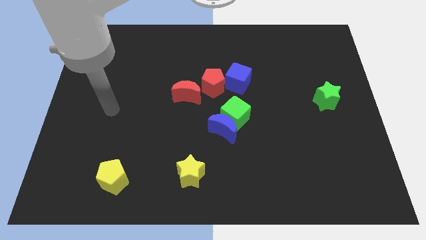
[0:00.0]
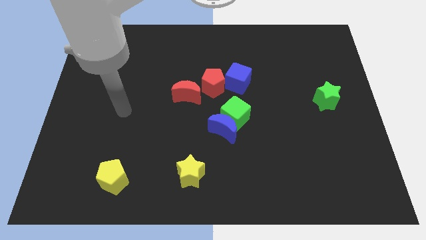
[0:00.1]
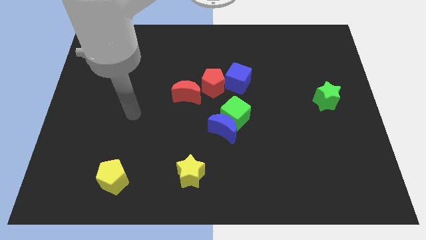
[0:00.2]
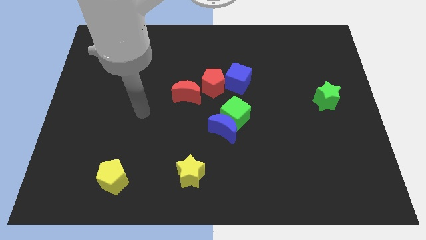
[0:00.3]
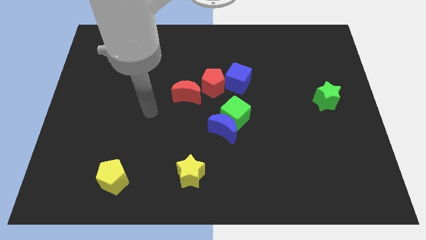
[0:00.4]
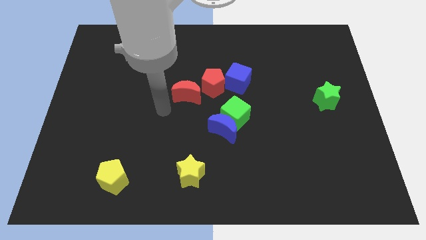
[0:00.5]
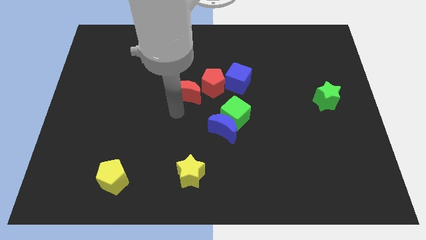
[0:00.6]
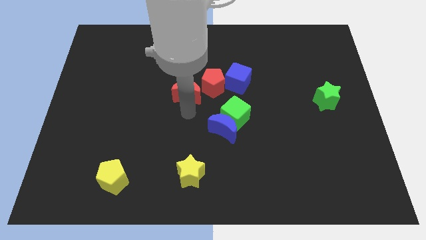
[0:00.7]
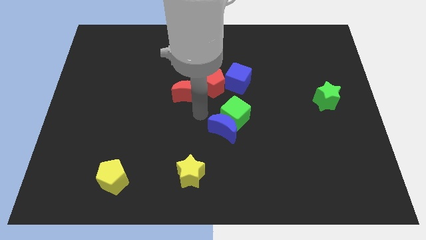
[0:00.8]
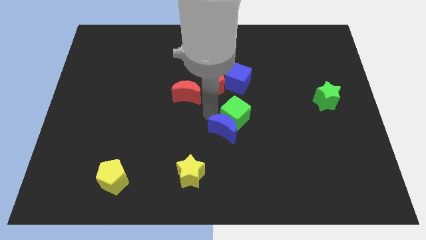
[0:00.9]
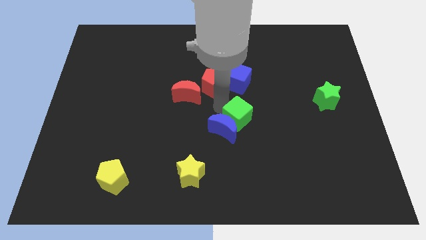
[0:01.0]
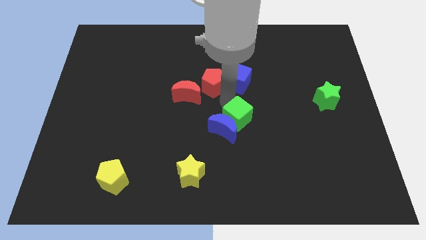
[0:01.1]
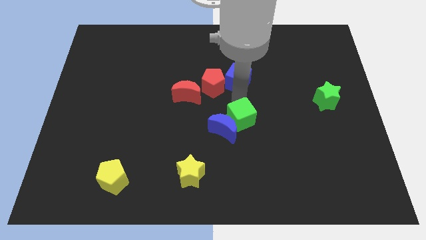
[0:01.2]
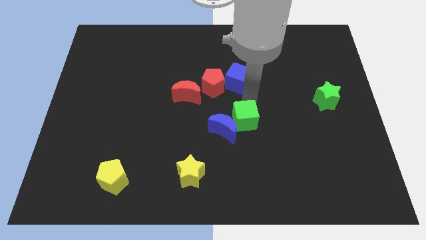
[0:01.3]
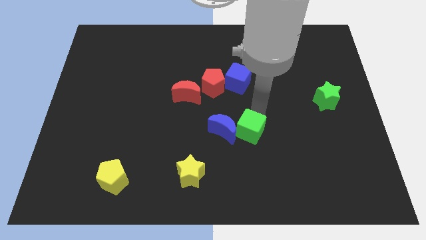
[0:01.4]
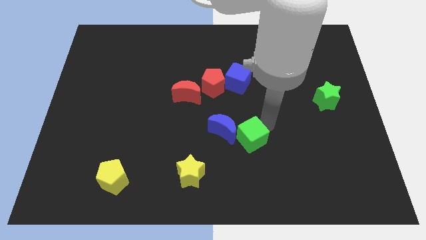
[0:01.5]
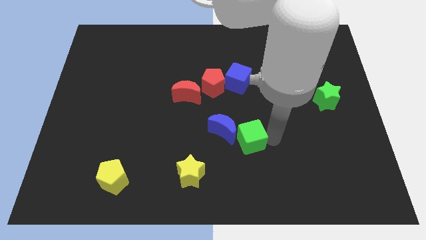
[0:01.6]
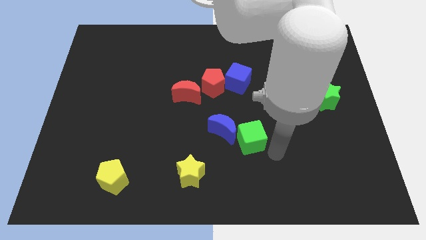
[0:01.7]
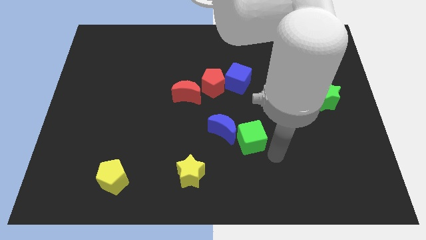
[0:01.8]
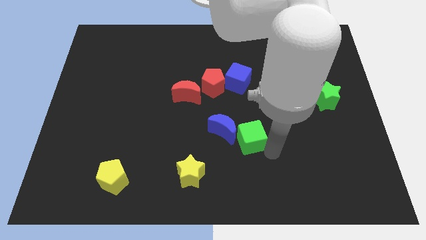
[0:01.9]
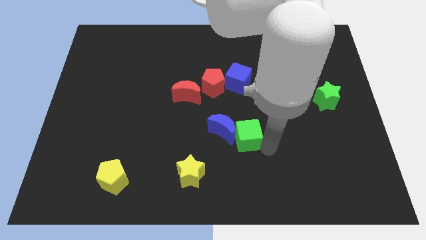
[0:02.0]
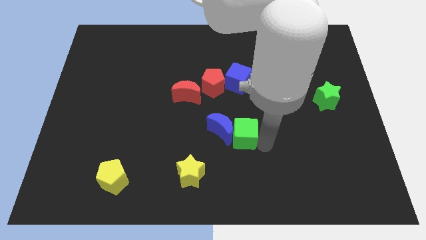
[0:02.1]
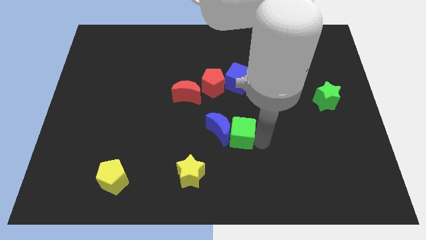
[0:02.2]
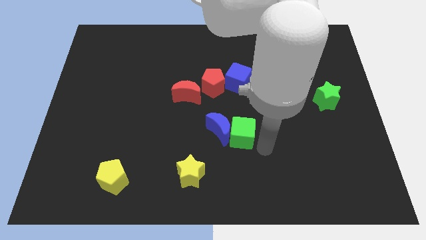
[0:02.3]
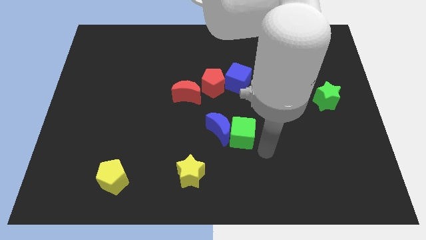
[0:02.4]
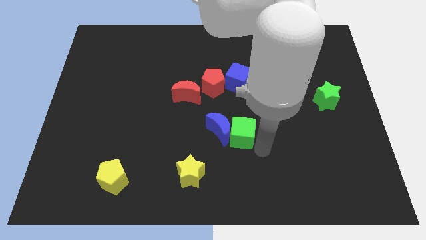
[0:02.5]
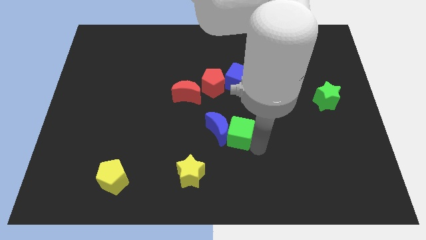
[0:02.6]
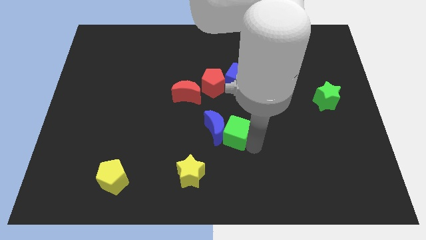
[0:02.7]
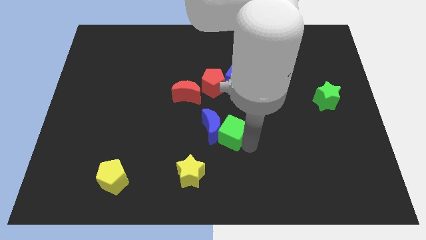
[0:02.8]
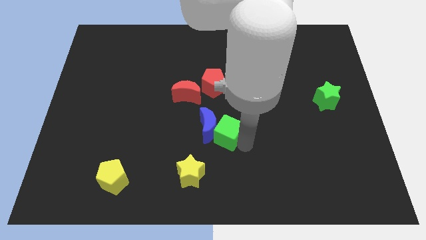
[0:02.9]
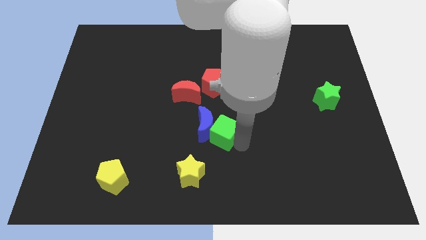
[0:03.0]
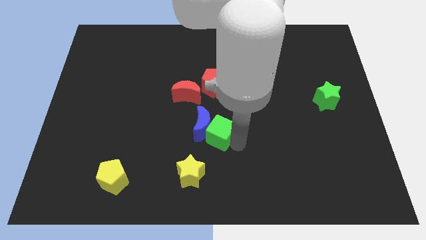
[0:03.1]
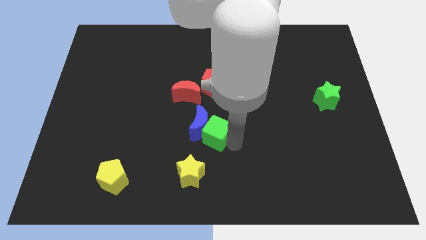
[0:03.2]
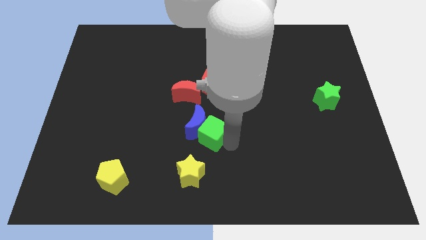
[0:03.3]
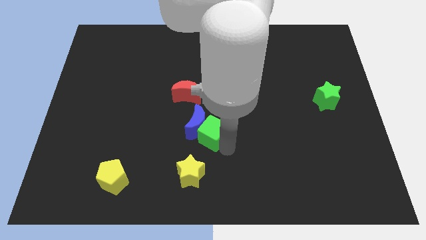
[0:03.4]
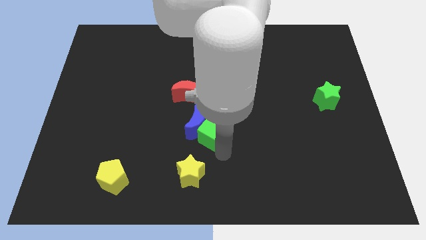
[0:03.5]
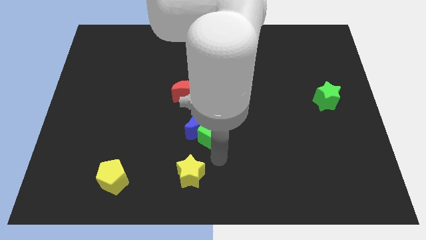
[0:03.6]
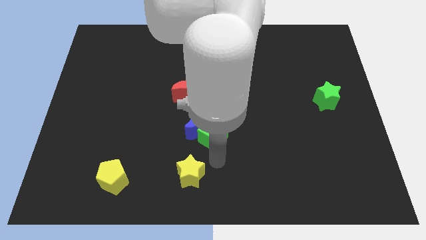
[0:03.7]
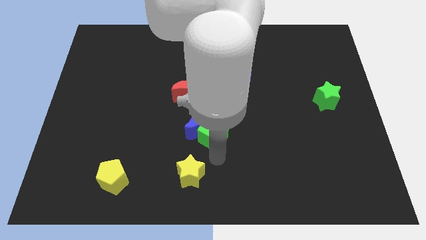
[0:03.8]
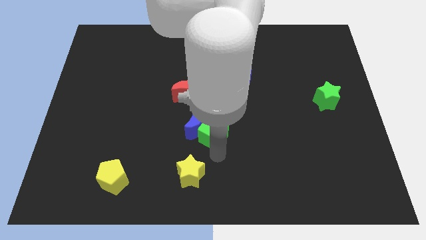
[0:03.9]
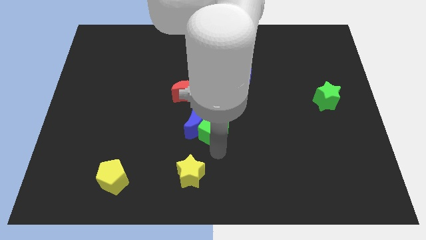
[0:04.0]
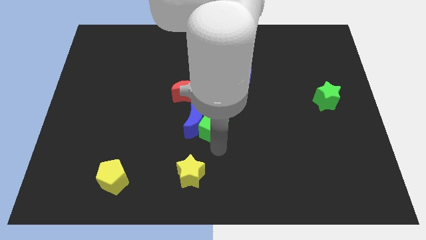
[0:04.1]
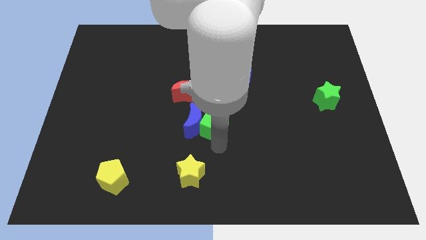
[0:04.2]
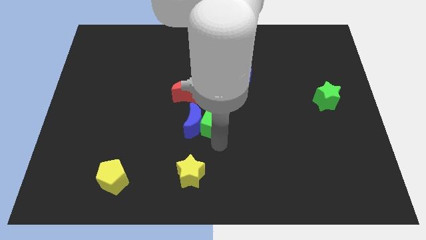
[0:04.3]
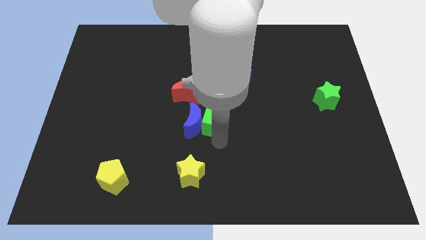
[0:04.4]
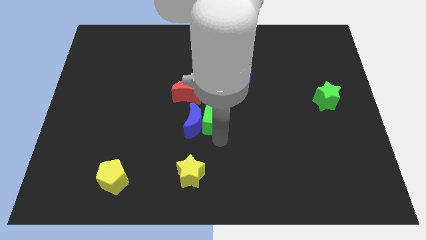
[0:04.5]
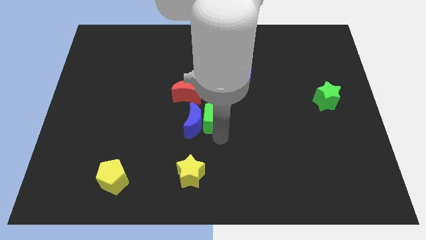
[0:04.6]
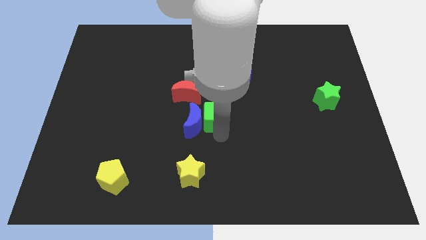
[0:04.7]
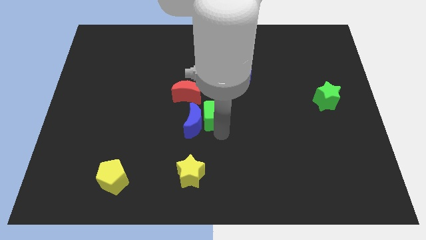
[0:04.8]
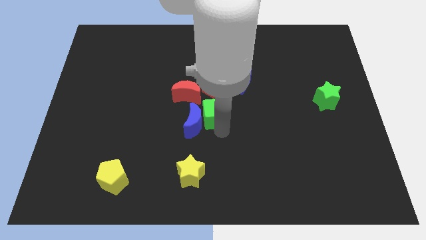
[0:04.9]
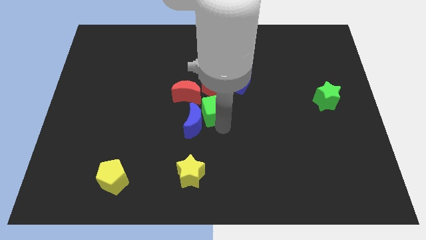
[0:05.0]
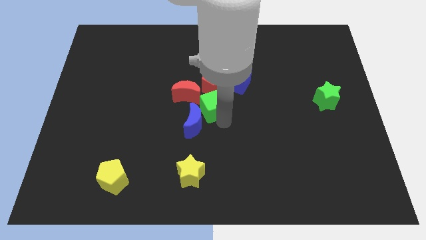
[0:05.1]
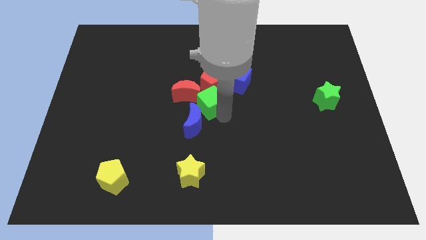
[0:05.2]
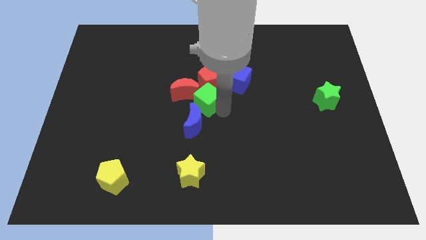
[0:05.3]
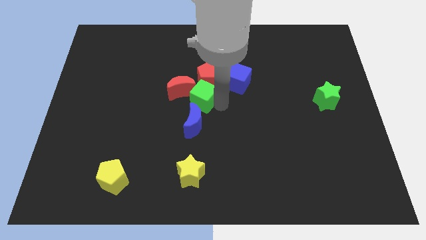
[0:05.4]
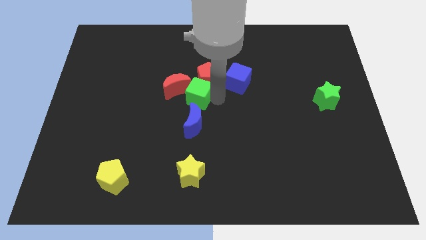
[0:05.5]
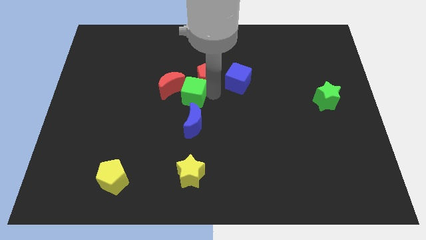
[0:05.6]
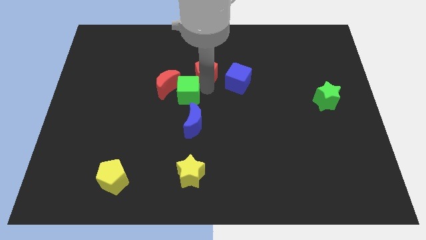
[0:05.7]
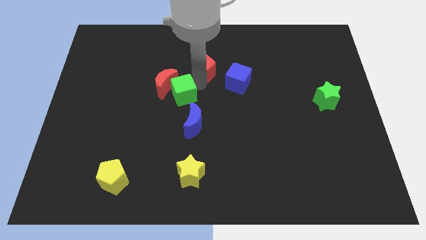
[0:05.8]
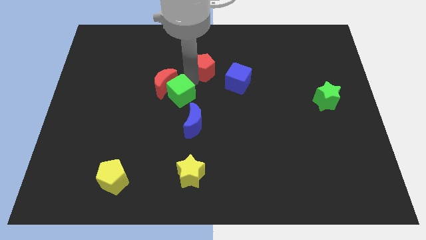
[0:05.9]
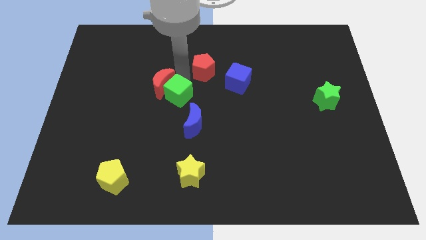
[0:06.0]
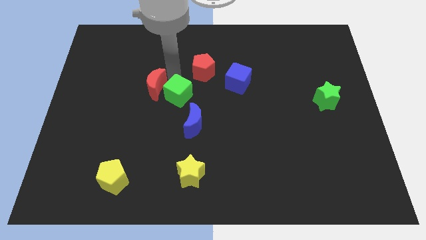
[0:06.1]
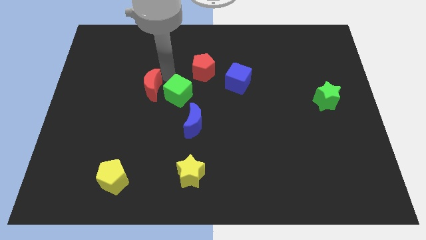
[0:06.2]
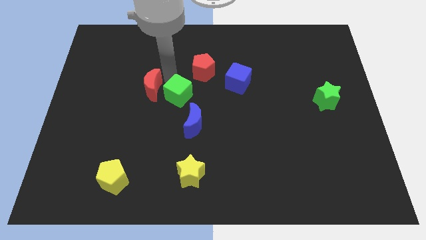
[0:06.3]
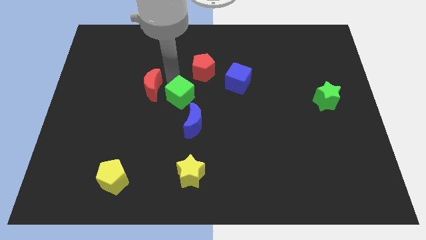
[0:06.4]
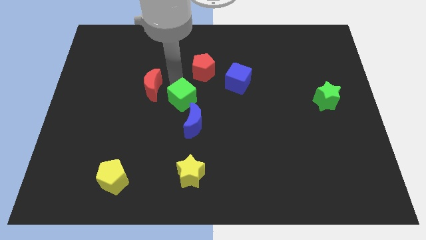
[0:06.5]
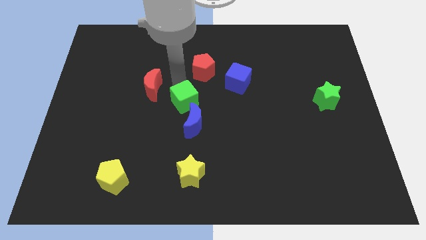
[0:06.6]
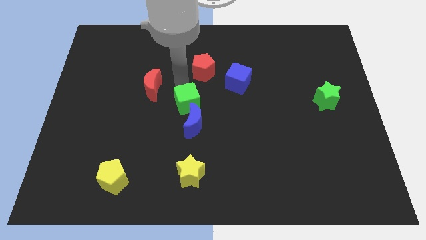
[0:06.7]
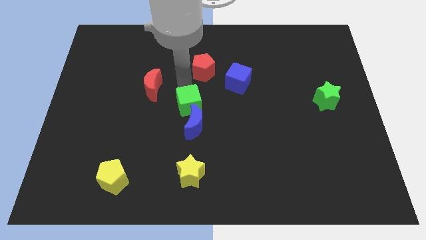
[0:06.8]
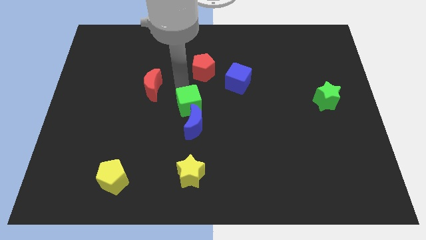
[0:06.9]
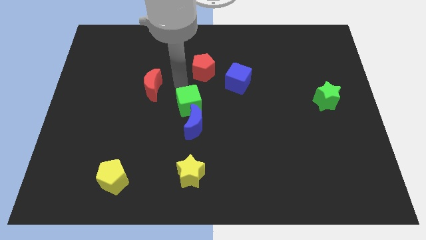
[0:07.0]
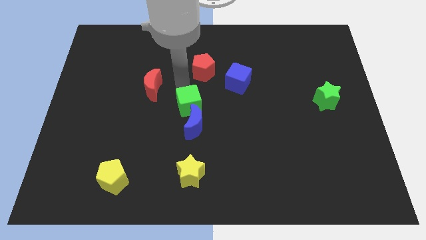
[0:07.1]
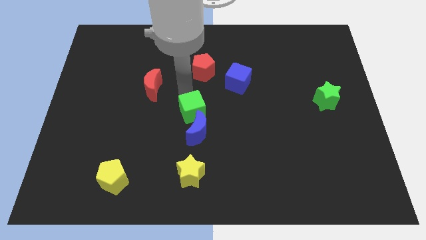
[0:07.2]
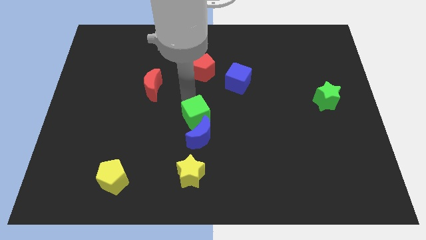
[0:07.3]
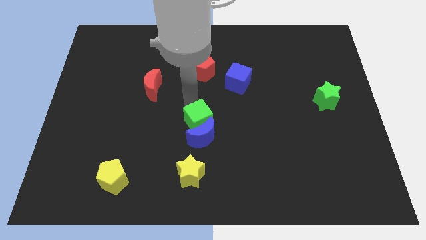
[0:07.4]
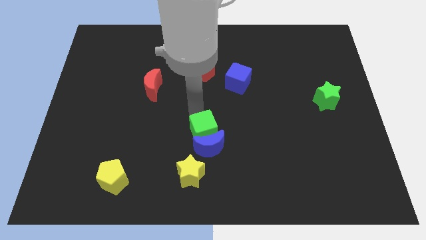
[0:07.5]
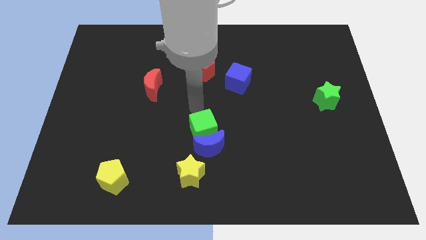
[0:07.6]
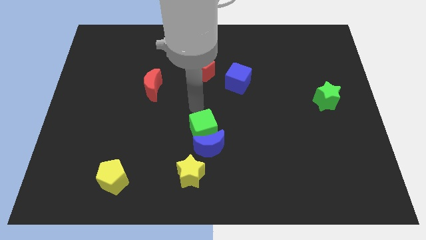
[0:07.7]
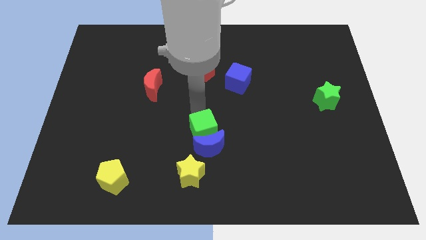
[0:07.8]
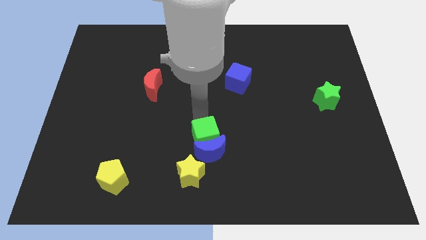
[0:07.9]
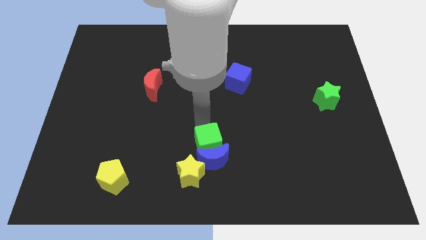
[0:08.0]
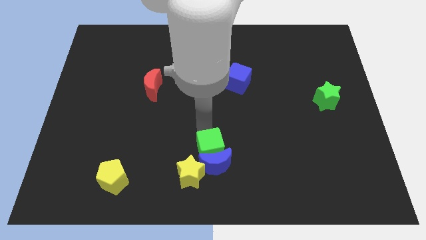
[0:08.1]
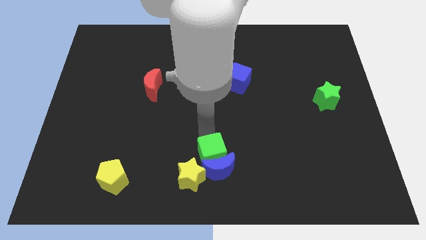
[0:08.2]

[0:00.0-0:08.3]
put the green cube to the bottom
